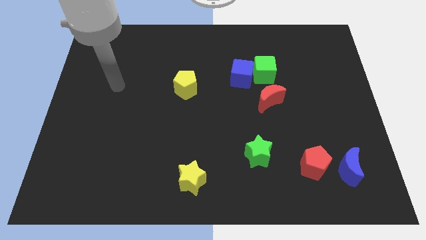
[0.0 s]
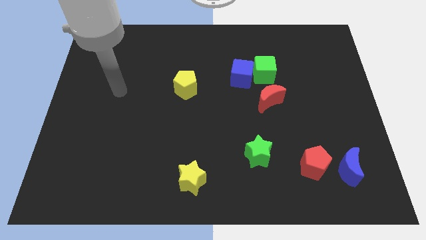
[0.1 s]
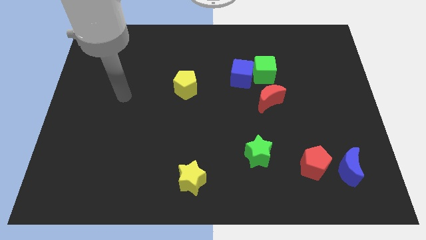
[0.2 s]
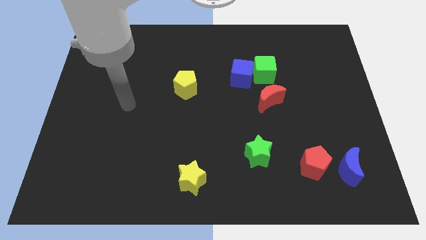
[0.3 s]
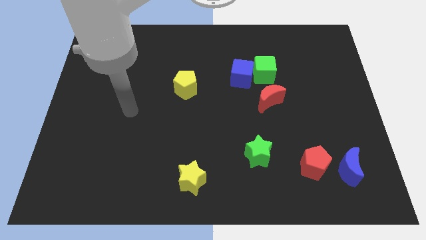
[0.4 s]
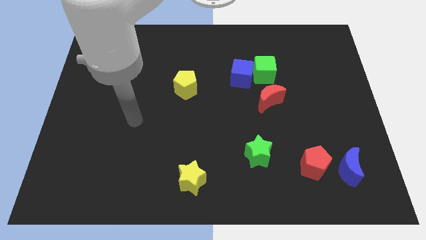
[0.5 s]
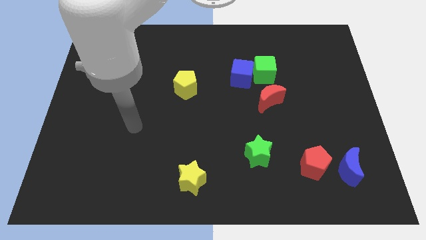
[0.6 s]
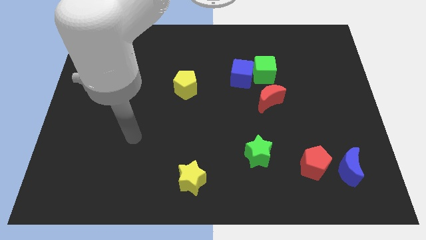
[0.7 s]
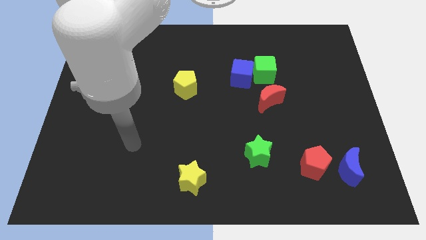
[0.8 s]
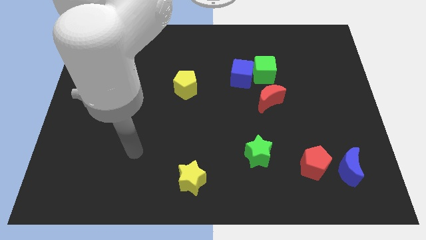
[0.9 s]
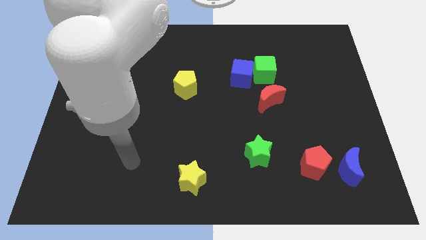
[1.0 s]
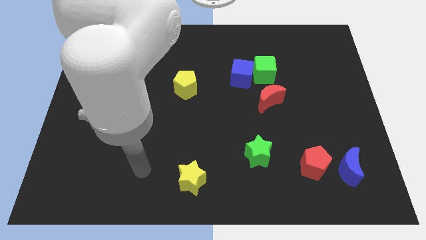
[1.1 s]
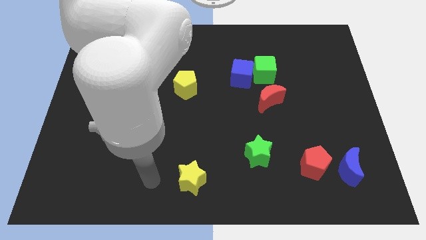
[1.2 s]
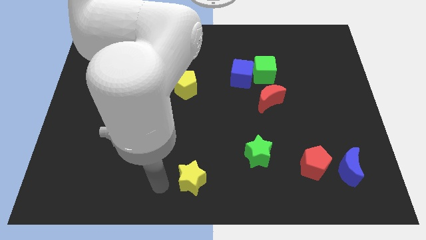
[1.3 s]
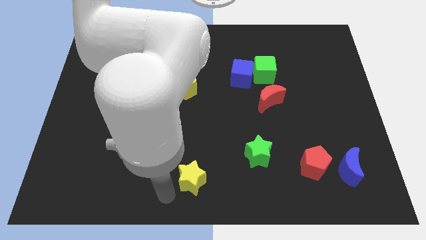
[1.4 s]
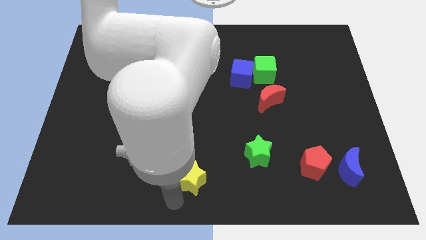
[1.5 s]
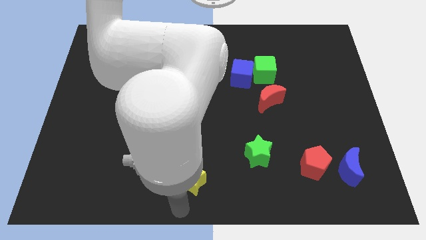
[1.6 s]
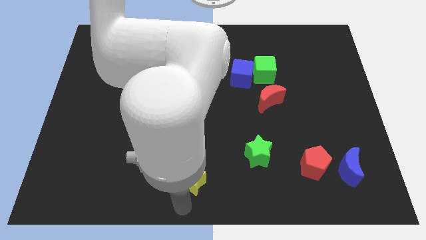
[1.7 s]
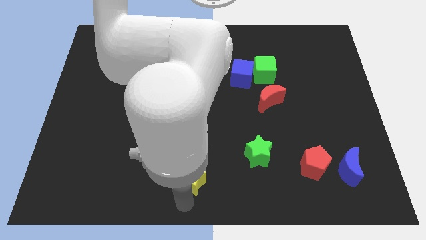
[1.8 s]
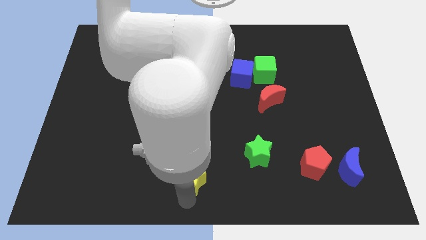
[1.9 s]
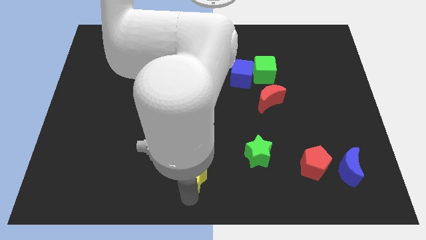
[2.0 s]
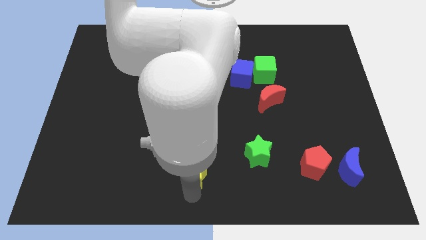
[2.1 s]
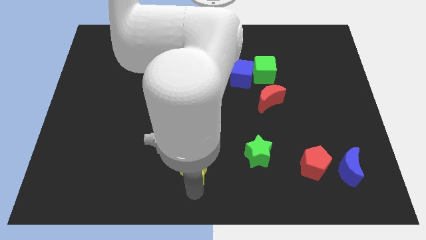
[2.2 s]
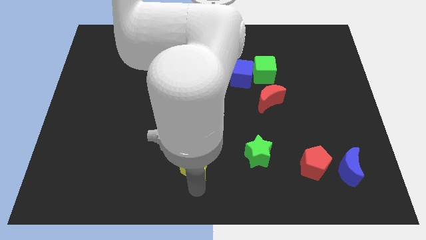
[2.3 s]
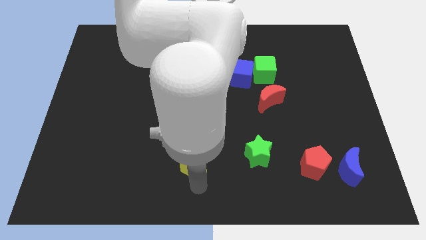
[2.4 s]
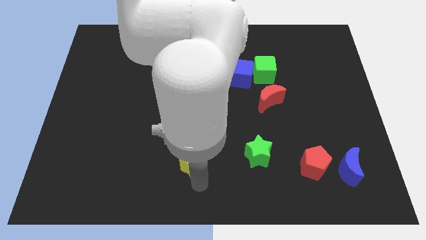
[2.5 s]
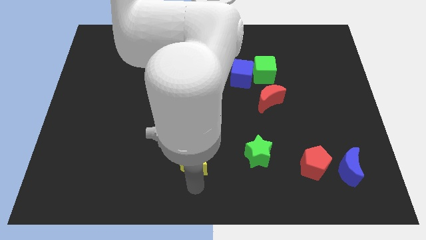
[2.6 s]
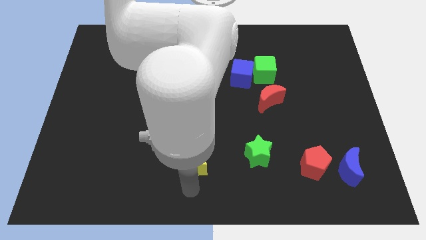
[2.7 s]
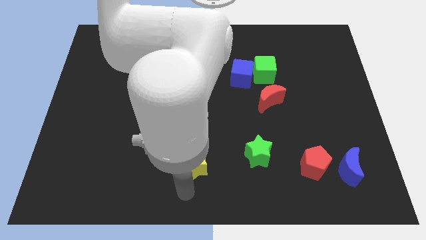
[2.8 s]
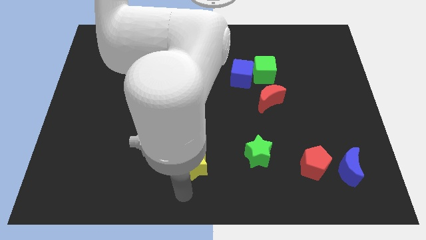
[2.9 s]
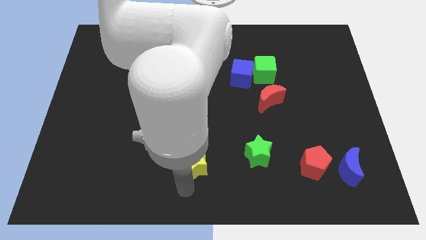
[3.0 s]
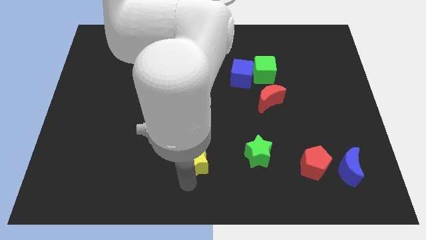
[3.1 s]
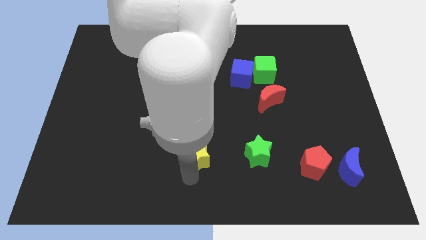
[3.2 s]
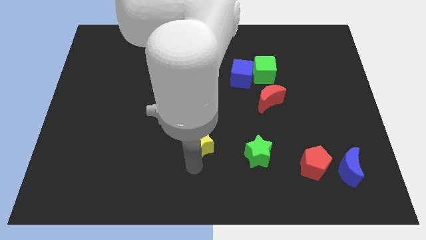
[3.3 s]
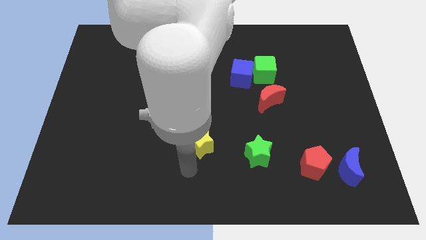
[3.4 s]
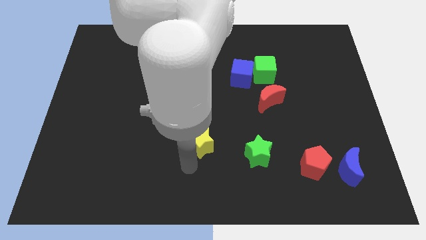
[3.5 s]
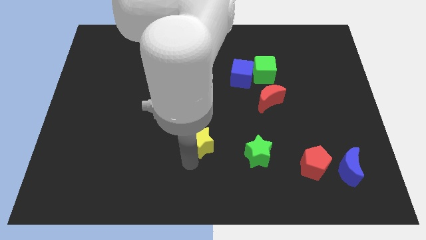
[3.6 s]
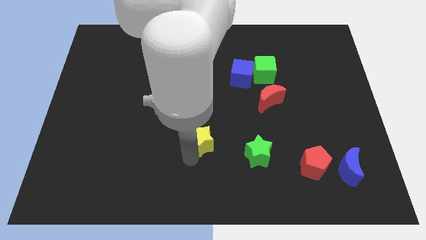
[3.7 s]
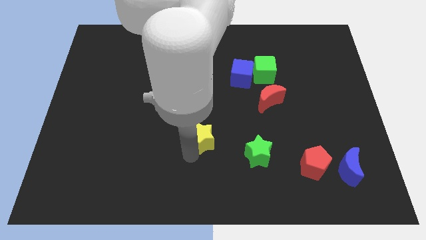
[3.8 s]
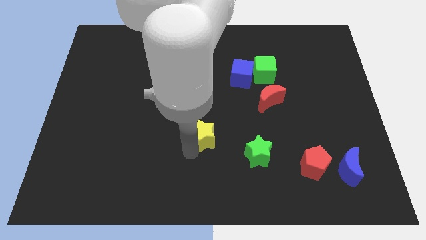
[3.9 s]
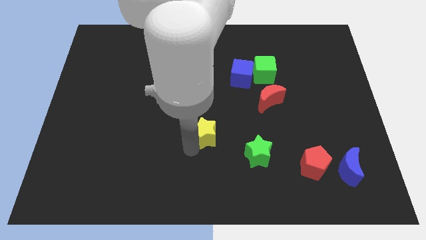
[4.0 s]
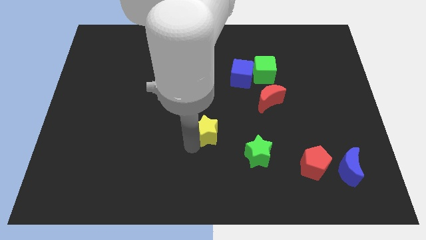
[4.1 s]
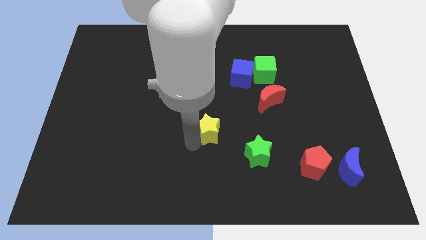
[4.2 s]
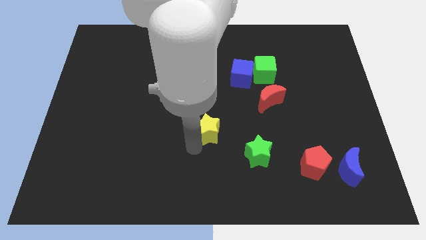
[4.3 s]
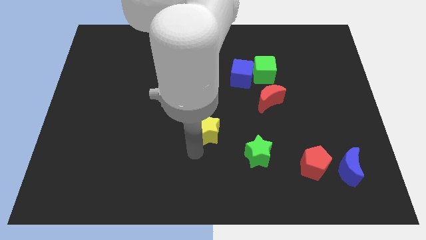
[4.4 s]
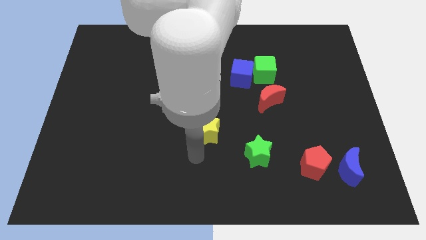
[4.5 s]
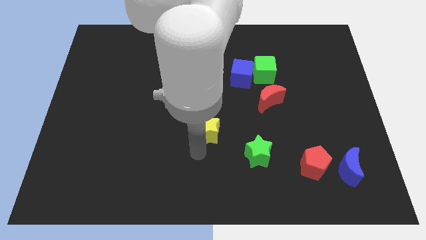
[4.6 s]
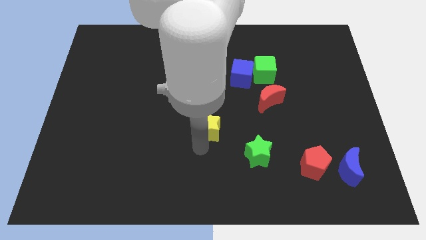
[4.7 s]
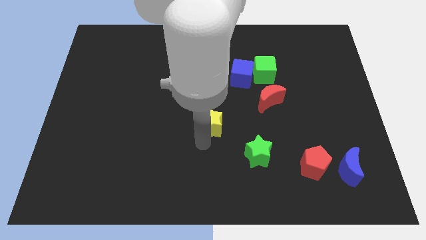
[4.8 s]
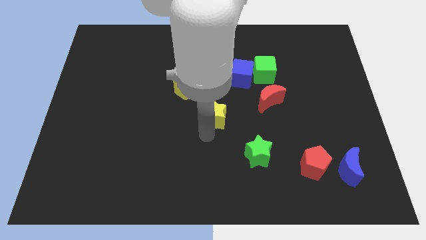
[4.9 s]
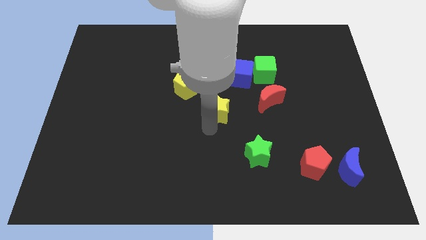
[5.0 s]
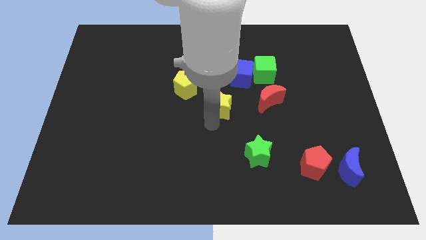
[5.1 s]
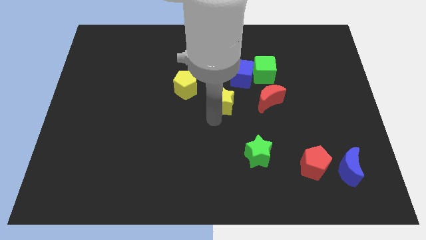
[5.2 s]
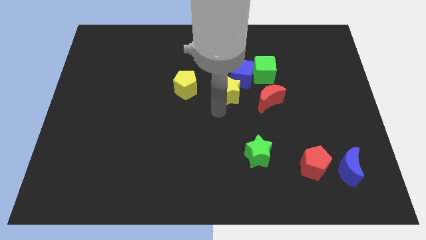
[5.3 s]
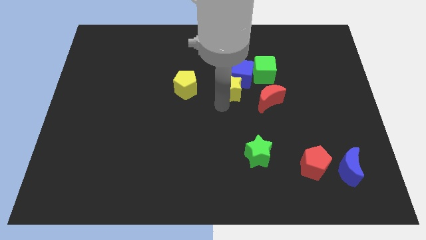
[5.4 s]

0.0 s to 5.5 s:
push the yellow star next to the blue cube

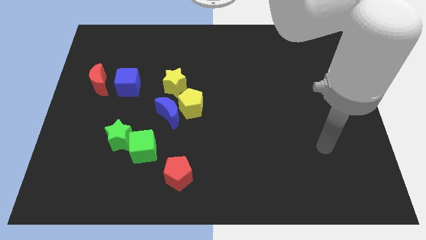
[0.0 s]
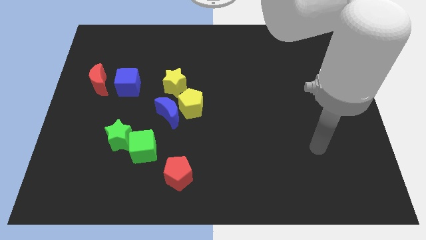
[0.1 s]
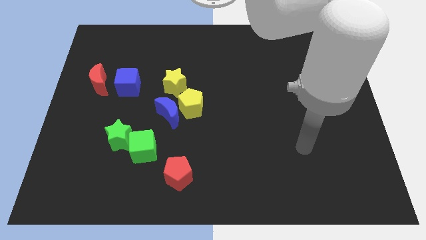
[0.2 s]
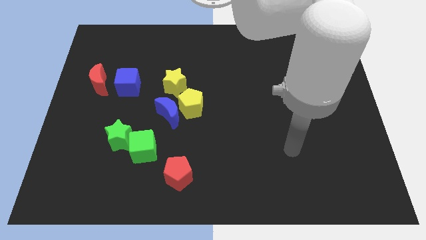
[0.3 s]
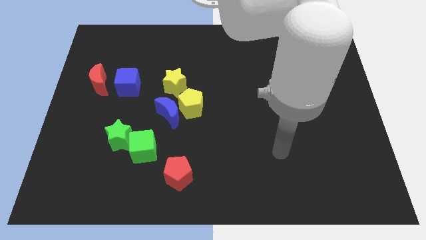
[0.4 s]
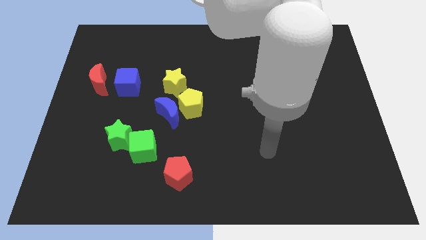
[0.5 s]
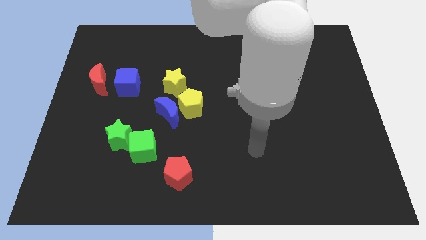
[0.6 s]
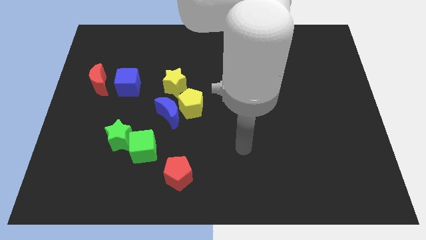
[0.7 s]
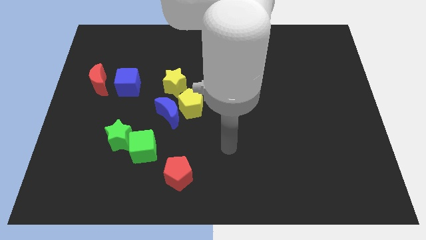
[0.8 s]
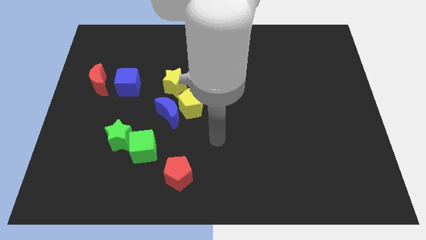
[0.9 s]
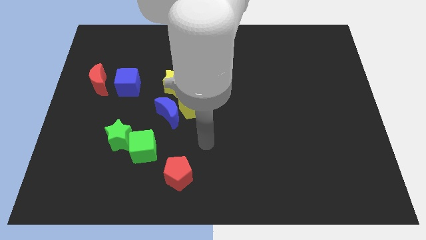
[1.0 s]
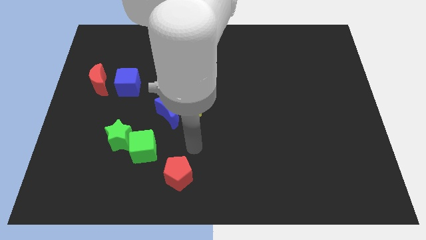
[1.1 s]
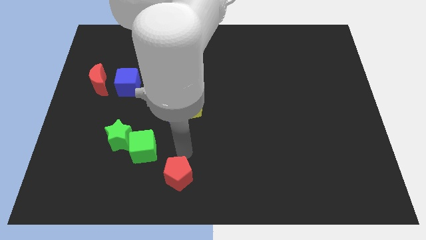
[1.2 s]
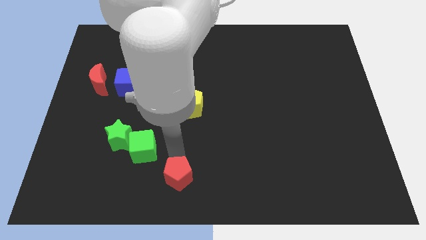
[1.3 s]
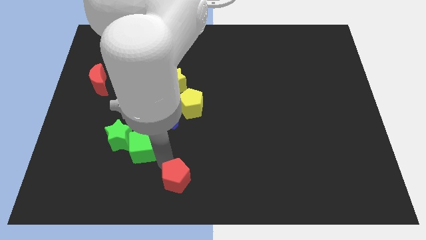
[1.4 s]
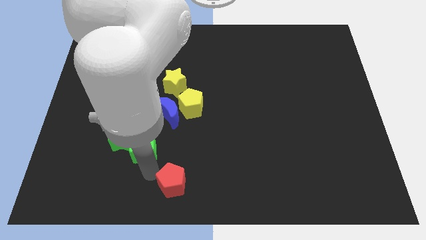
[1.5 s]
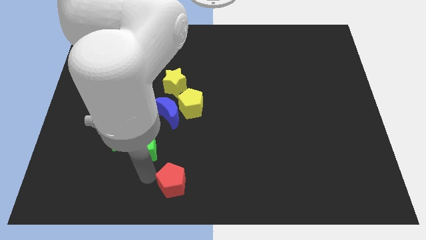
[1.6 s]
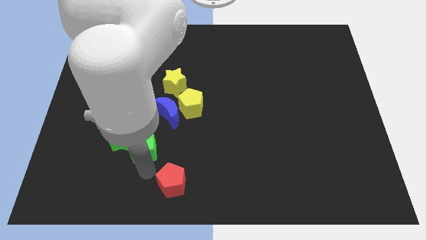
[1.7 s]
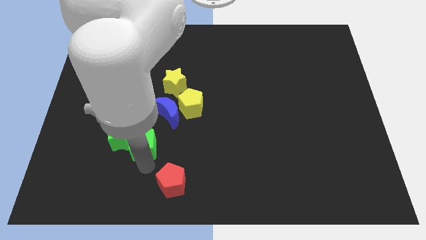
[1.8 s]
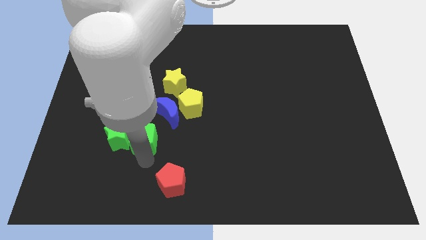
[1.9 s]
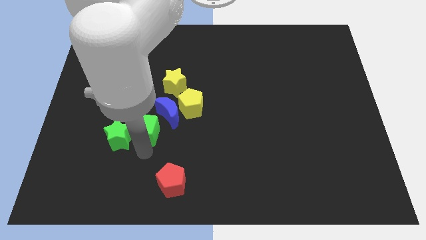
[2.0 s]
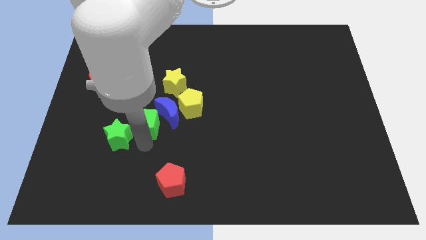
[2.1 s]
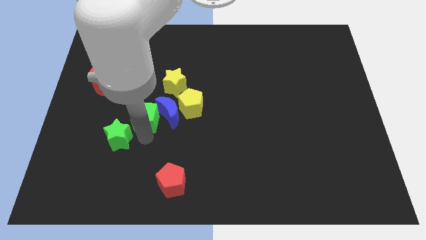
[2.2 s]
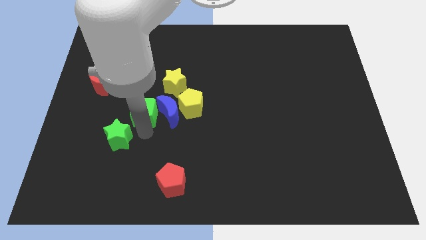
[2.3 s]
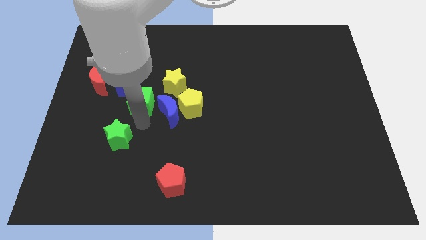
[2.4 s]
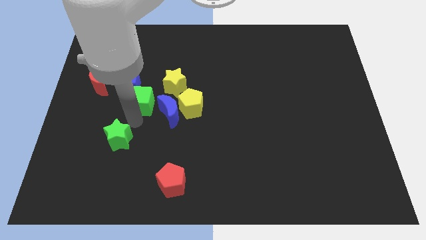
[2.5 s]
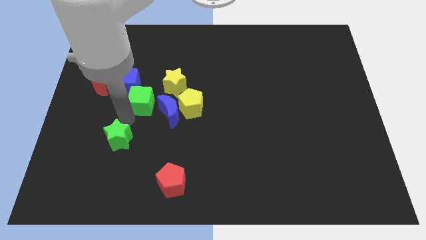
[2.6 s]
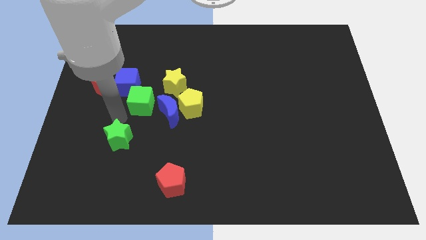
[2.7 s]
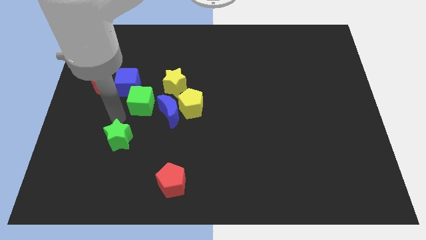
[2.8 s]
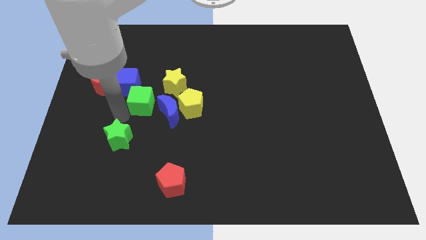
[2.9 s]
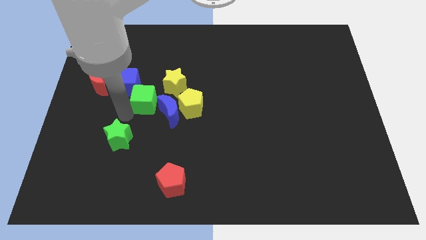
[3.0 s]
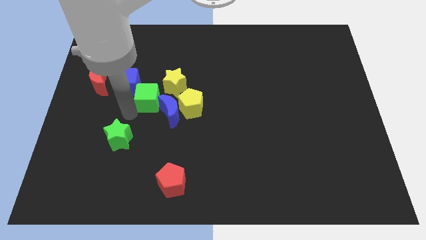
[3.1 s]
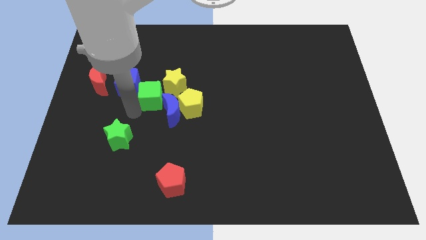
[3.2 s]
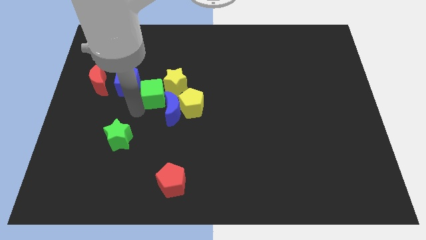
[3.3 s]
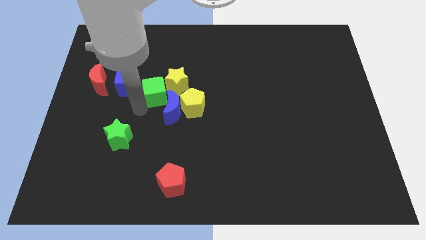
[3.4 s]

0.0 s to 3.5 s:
push the green cube next to the yellow star
